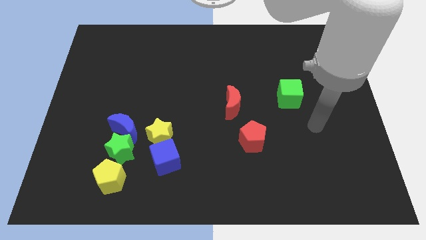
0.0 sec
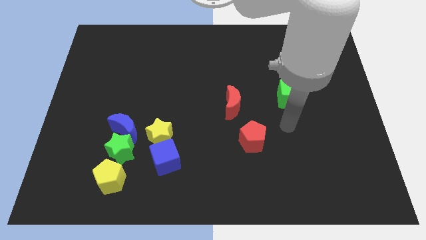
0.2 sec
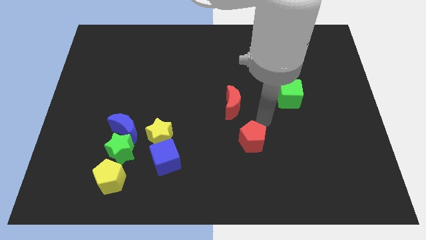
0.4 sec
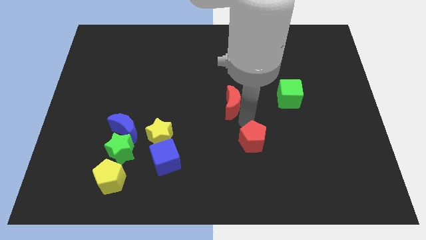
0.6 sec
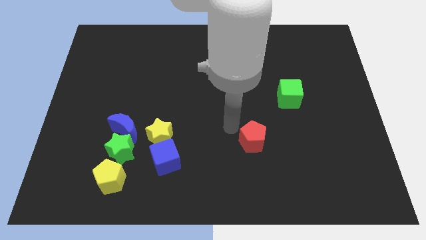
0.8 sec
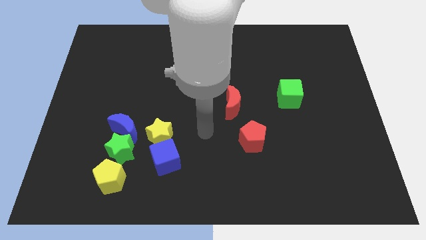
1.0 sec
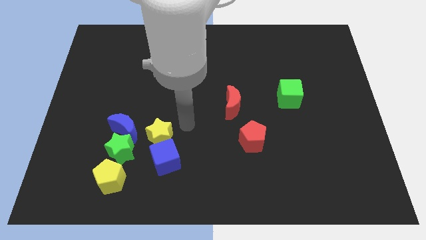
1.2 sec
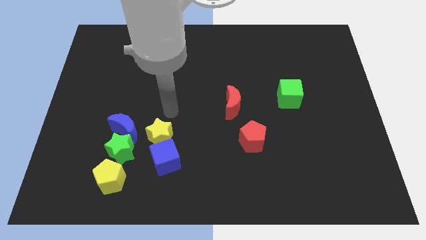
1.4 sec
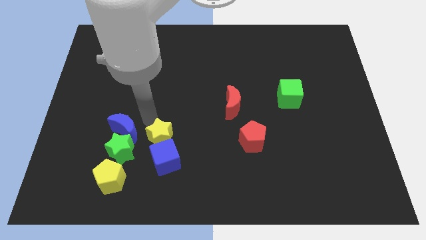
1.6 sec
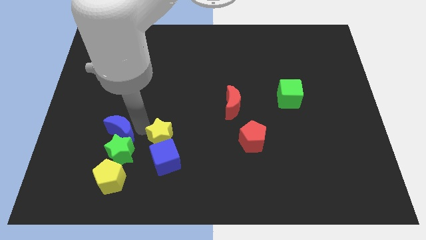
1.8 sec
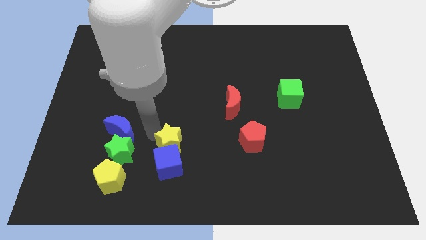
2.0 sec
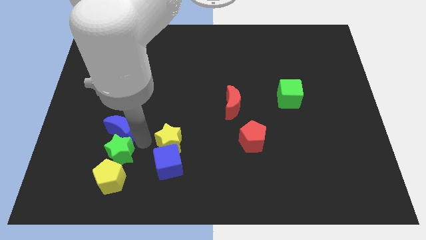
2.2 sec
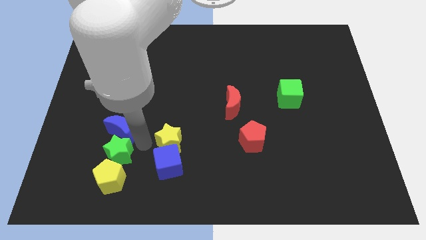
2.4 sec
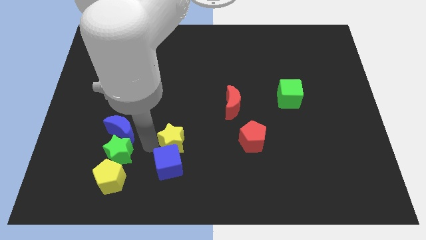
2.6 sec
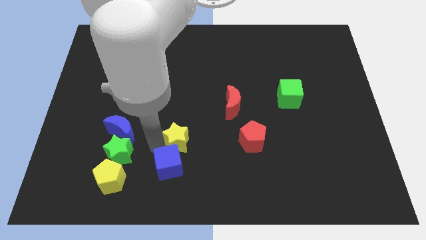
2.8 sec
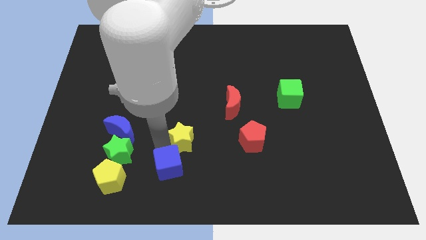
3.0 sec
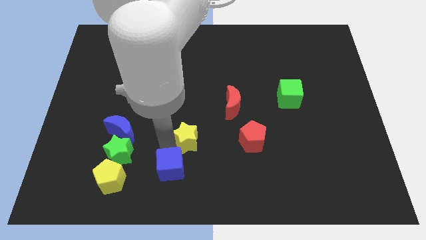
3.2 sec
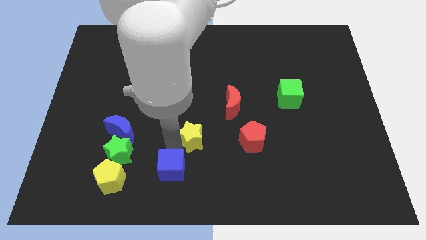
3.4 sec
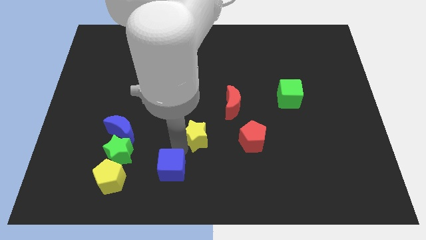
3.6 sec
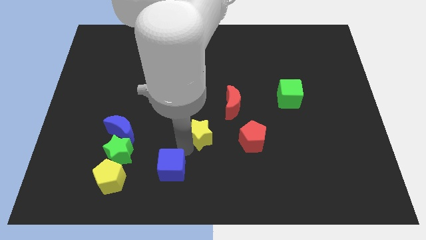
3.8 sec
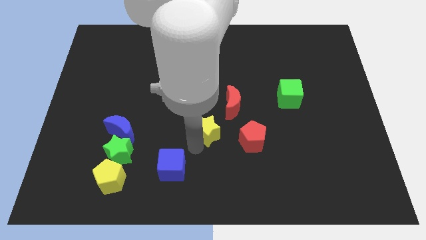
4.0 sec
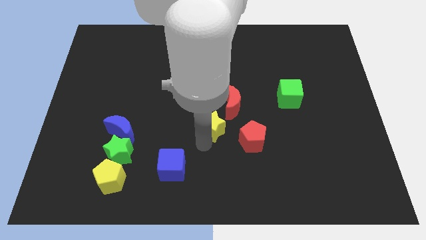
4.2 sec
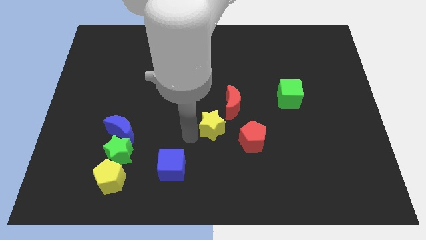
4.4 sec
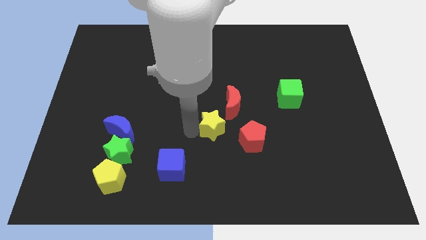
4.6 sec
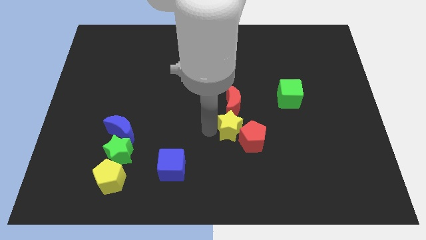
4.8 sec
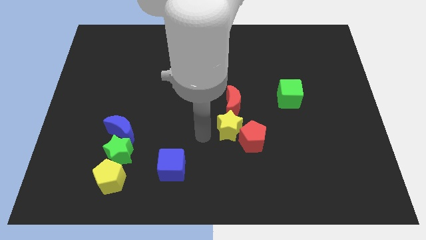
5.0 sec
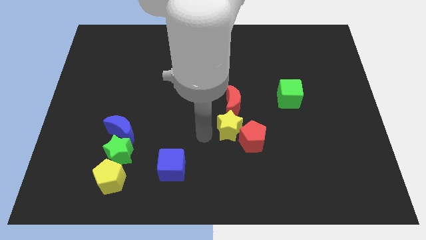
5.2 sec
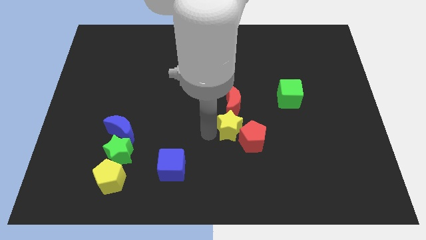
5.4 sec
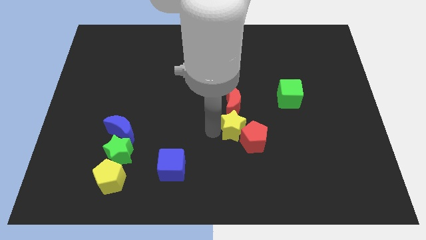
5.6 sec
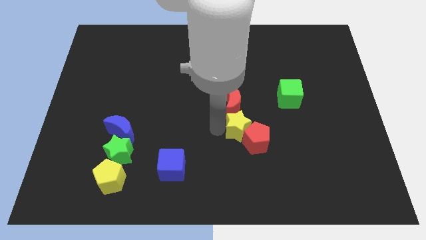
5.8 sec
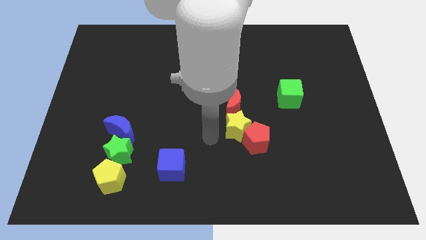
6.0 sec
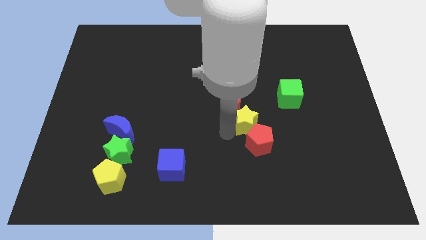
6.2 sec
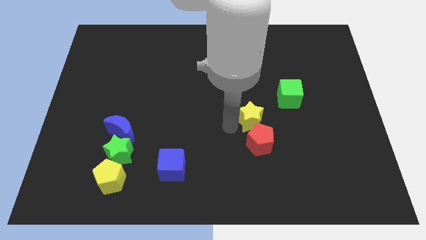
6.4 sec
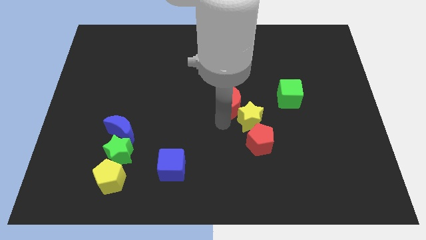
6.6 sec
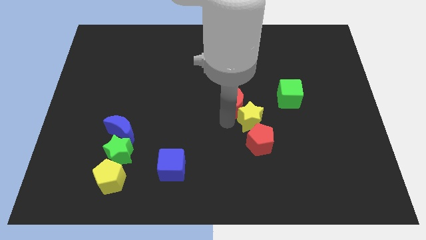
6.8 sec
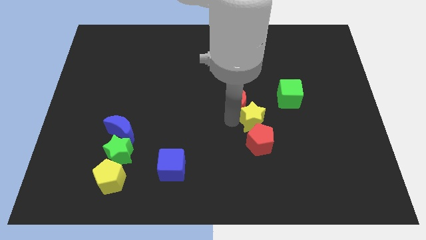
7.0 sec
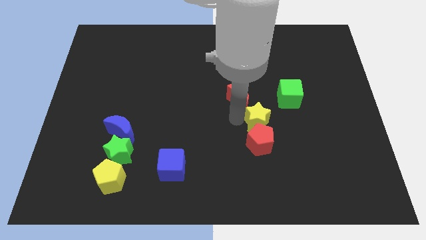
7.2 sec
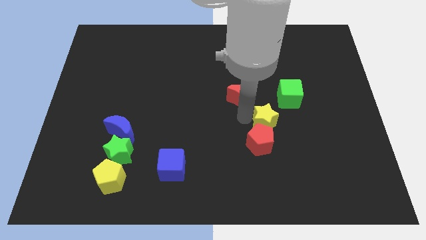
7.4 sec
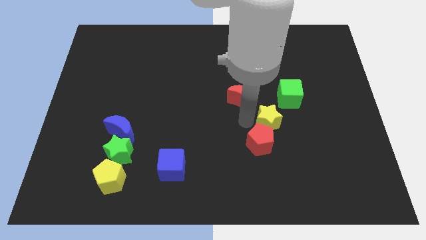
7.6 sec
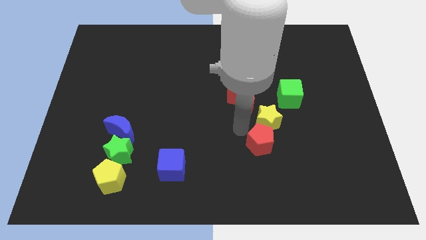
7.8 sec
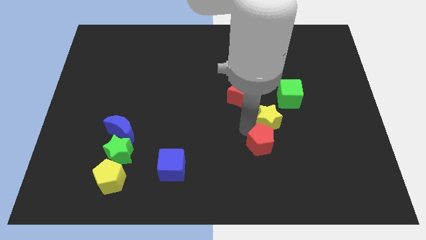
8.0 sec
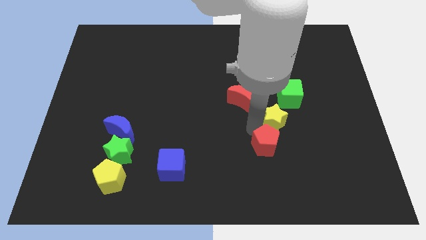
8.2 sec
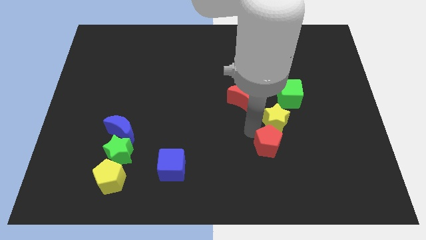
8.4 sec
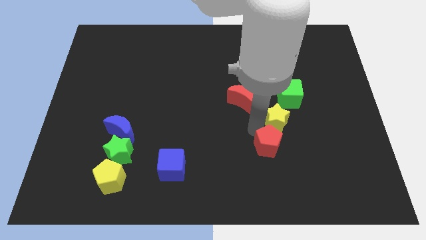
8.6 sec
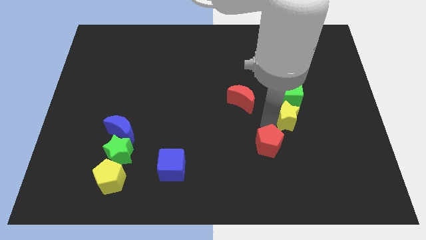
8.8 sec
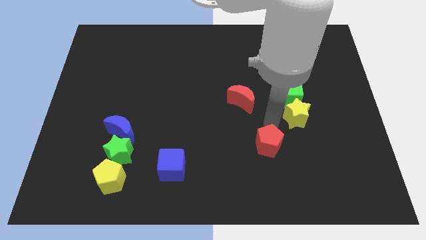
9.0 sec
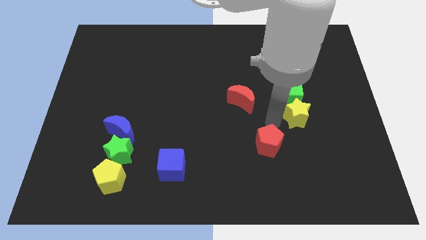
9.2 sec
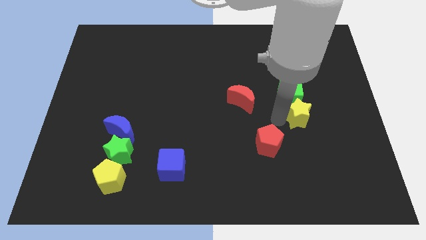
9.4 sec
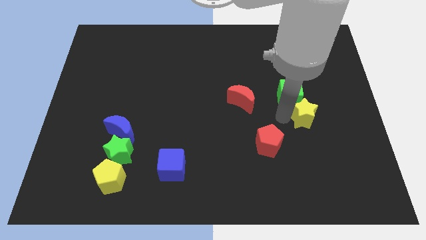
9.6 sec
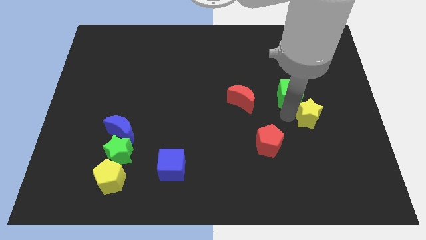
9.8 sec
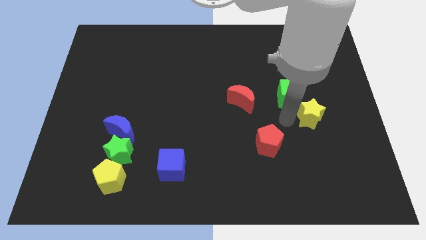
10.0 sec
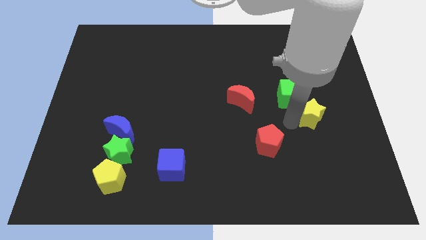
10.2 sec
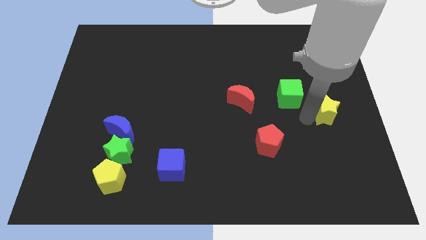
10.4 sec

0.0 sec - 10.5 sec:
push the yellow star to the center right

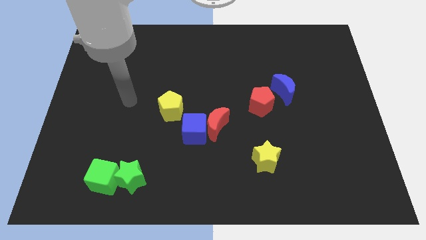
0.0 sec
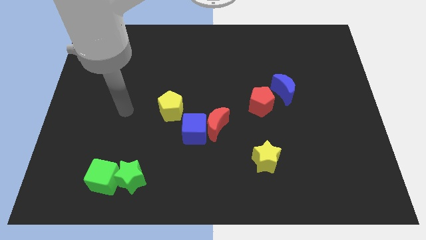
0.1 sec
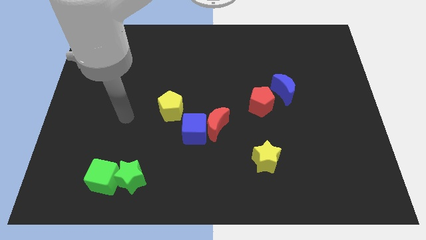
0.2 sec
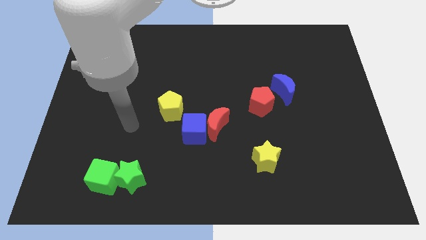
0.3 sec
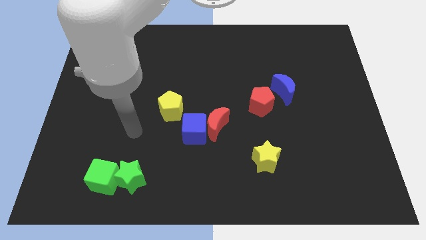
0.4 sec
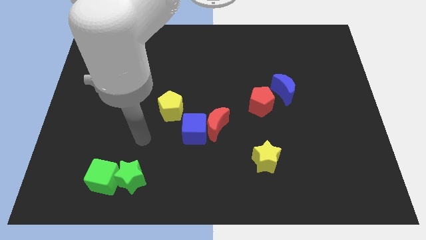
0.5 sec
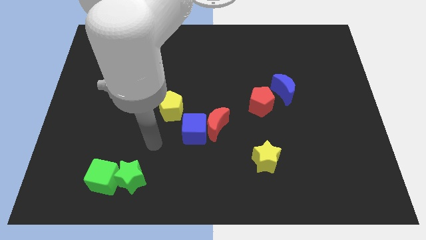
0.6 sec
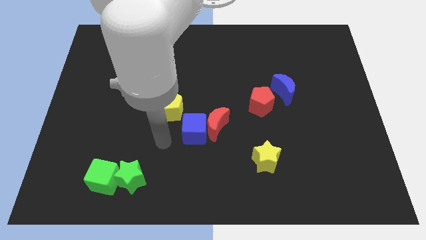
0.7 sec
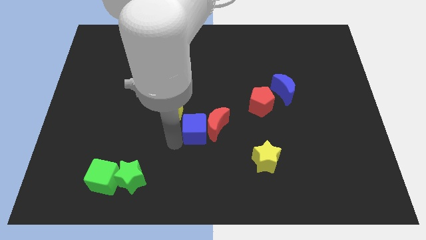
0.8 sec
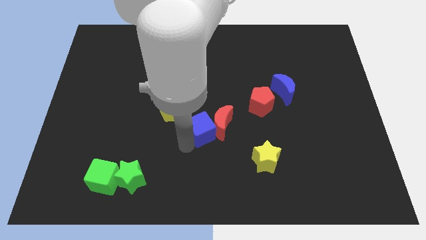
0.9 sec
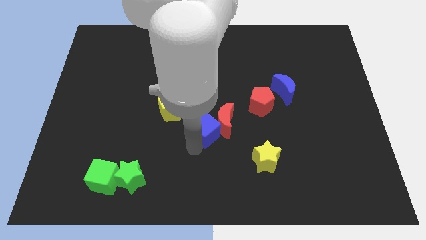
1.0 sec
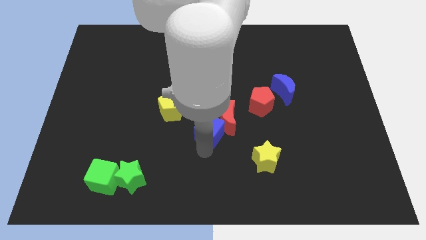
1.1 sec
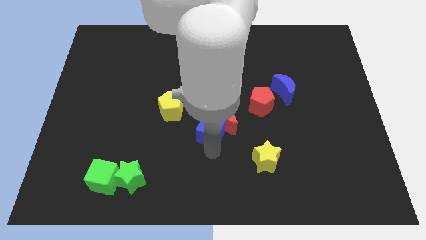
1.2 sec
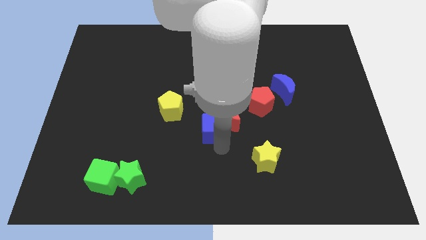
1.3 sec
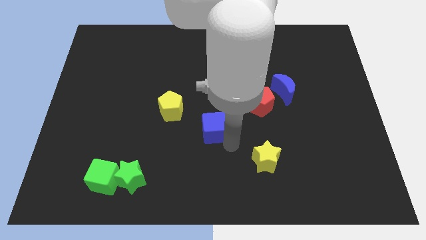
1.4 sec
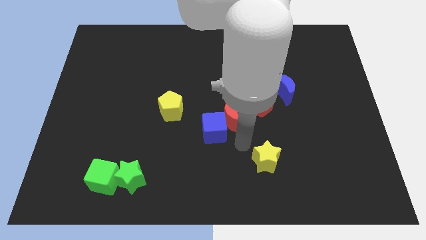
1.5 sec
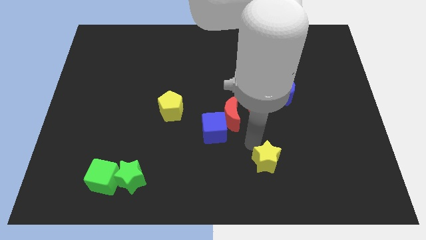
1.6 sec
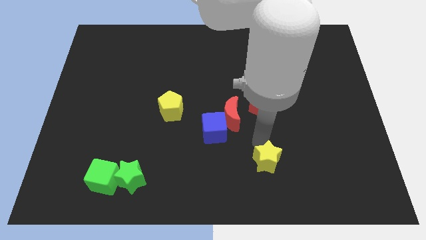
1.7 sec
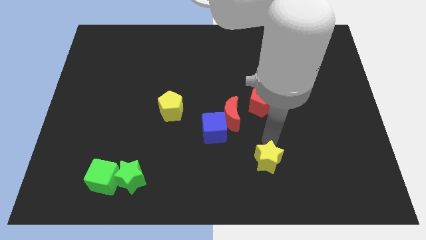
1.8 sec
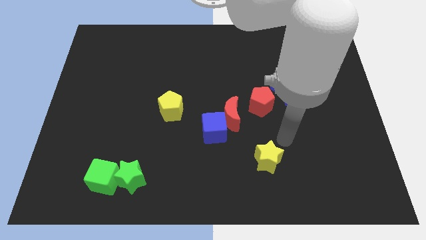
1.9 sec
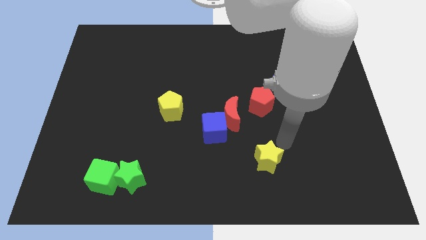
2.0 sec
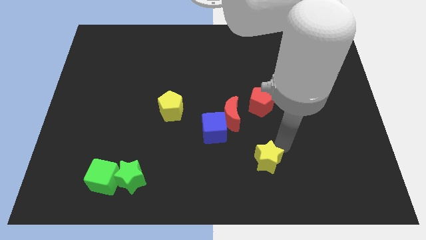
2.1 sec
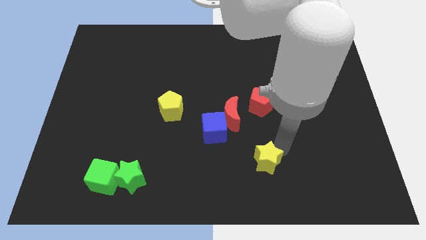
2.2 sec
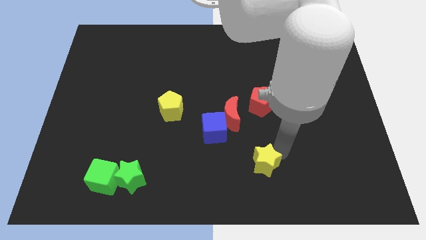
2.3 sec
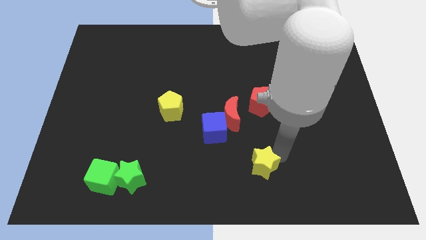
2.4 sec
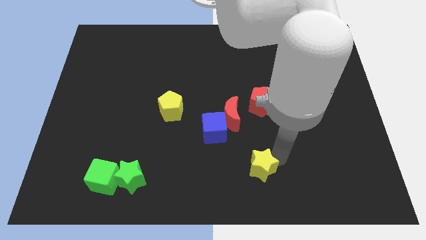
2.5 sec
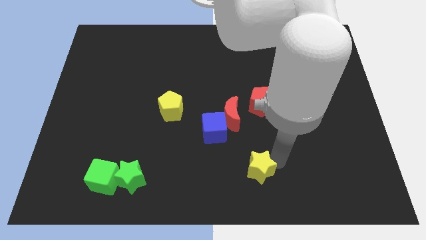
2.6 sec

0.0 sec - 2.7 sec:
move the yellow star to the bottom side
